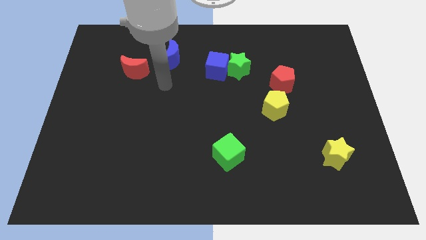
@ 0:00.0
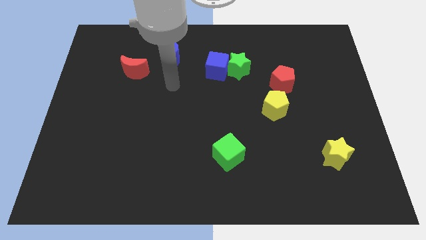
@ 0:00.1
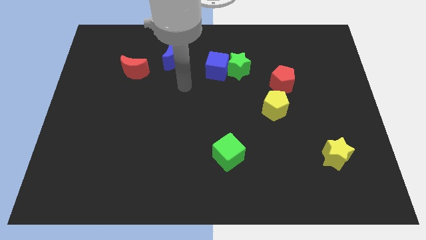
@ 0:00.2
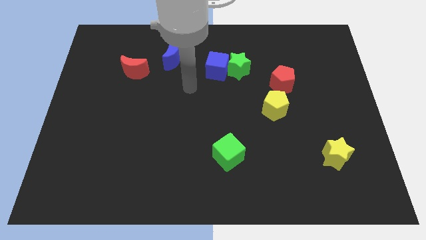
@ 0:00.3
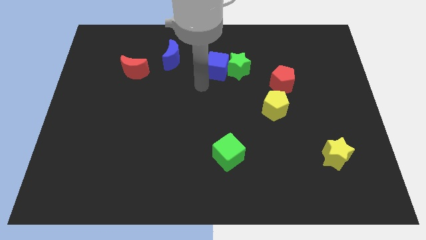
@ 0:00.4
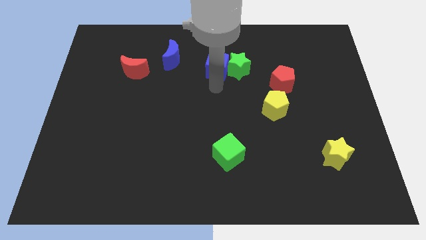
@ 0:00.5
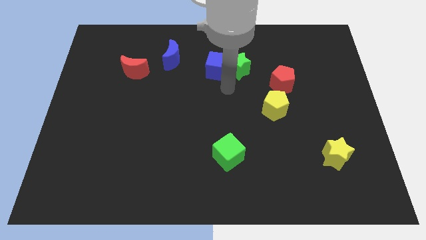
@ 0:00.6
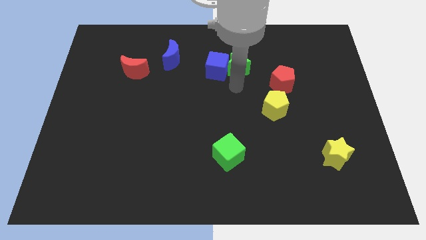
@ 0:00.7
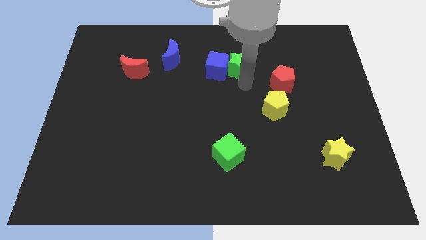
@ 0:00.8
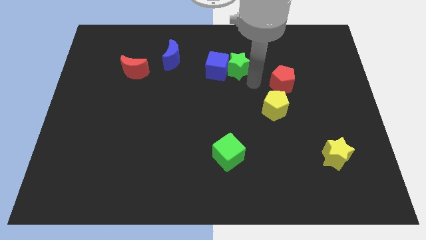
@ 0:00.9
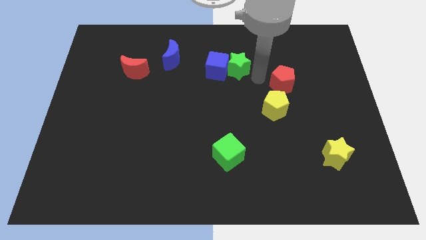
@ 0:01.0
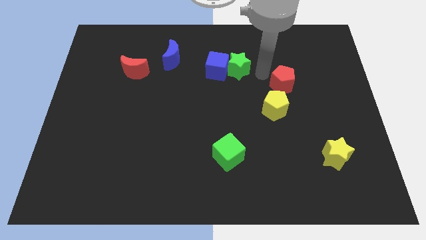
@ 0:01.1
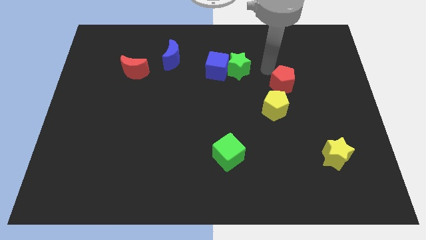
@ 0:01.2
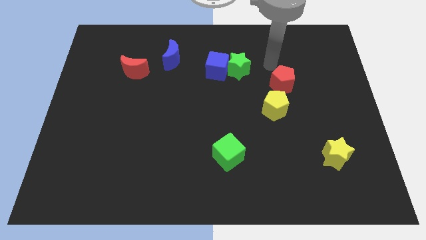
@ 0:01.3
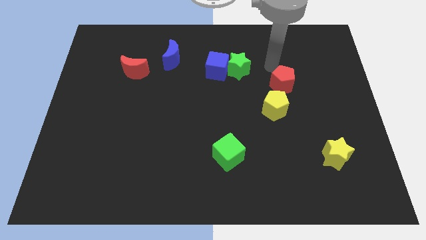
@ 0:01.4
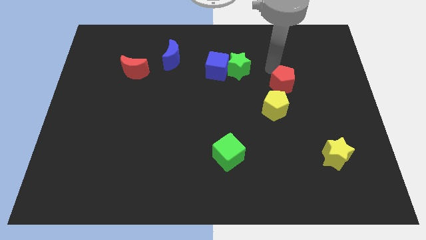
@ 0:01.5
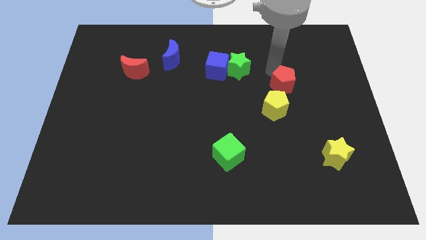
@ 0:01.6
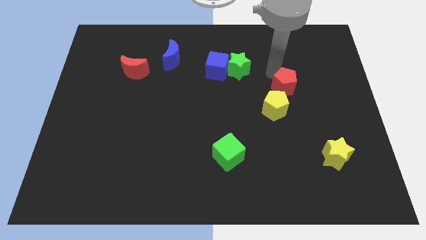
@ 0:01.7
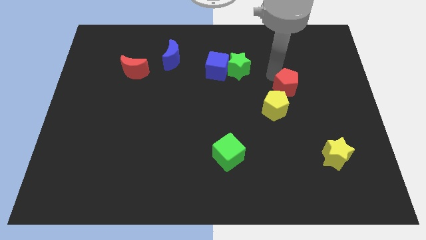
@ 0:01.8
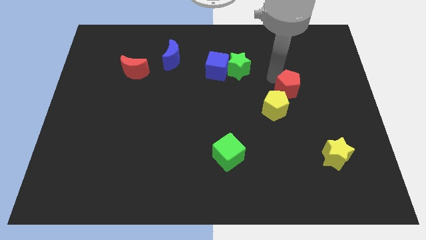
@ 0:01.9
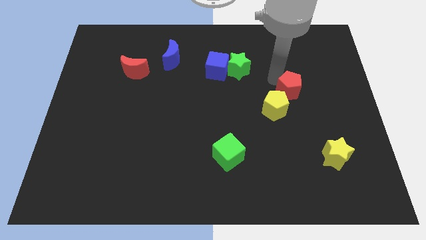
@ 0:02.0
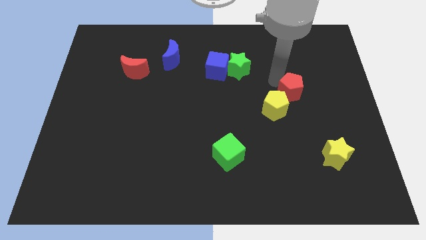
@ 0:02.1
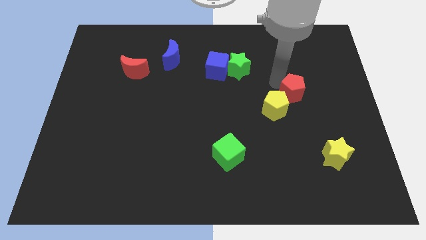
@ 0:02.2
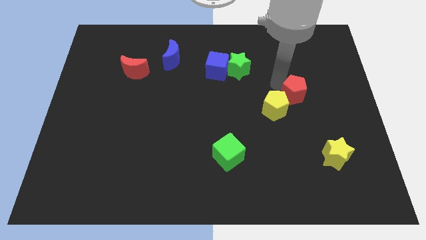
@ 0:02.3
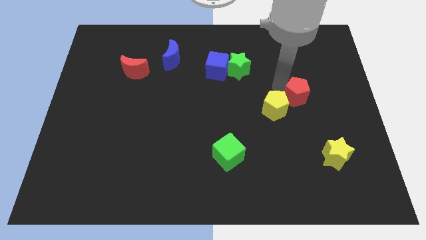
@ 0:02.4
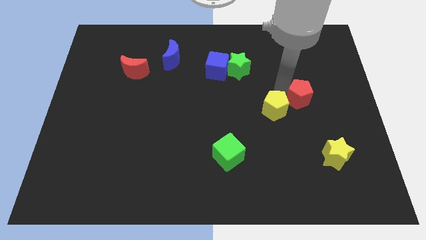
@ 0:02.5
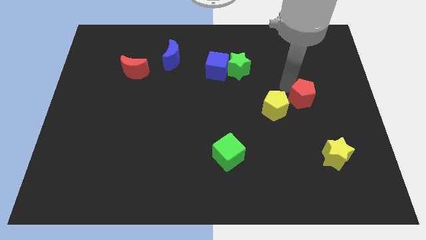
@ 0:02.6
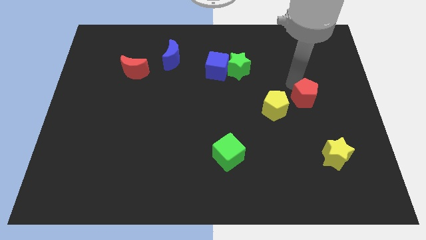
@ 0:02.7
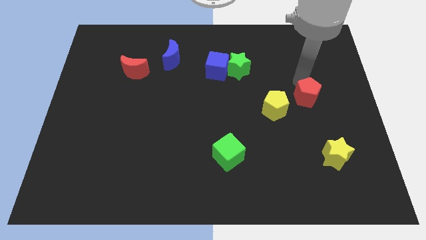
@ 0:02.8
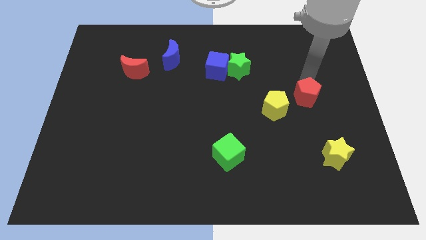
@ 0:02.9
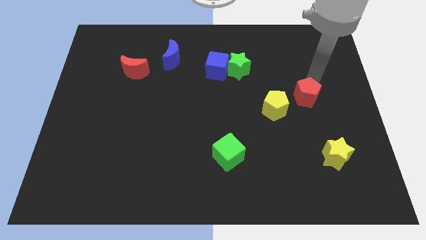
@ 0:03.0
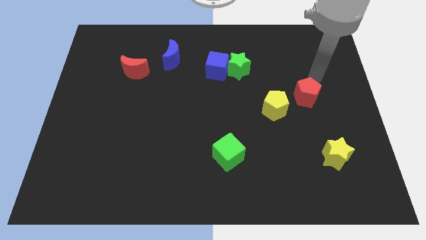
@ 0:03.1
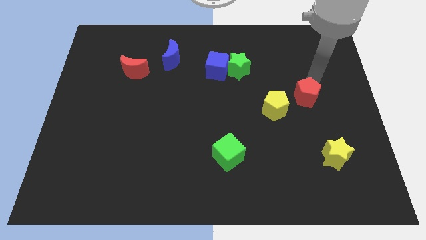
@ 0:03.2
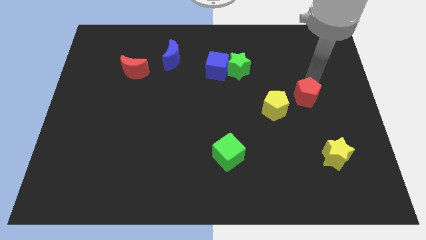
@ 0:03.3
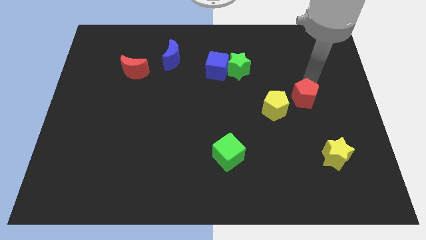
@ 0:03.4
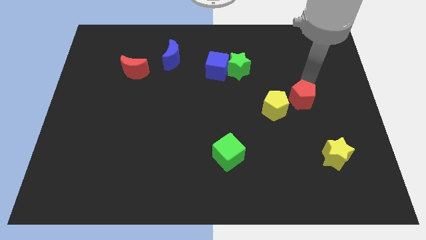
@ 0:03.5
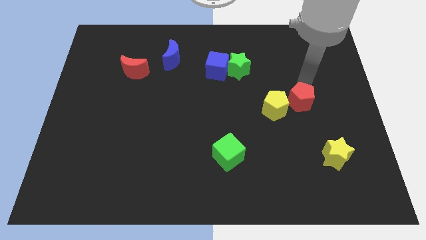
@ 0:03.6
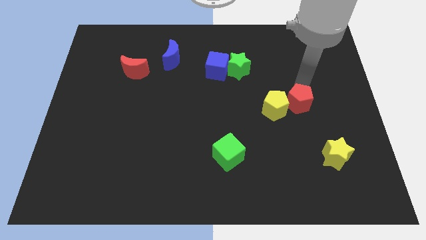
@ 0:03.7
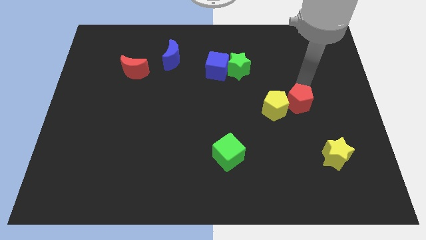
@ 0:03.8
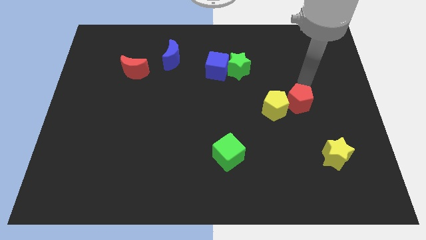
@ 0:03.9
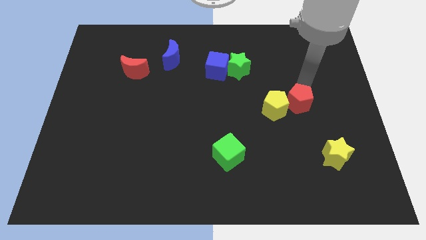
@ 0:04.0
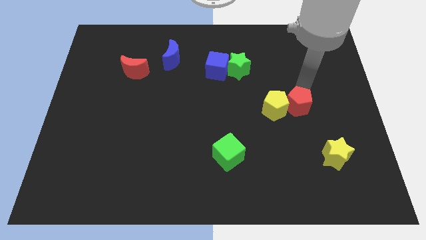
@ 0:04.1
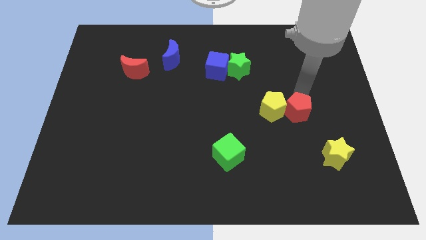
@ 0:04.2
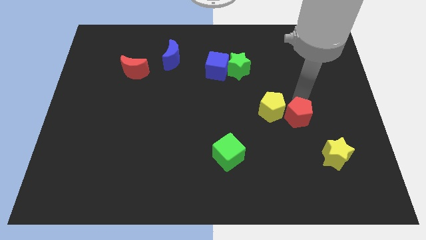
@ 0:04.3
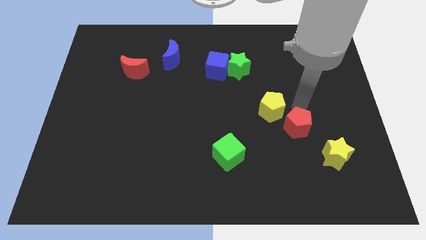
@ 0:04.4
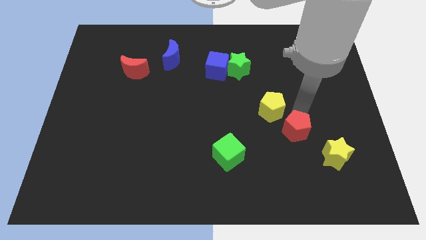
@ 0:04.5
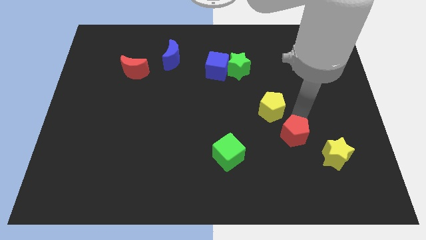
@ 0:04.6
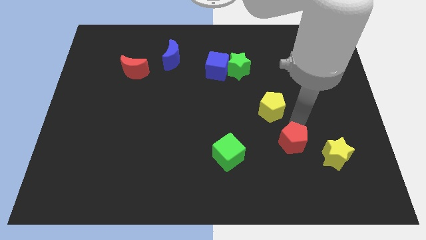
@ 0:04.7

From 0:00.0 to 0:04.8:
slide the red pentagon to the left side of the yellow star

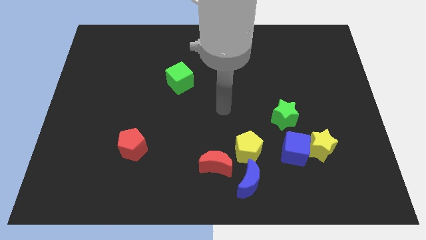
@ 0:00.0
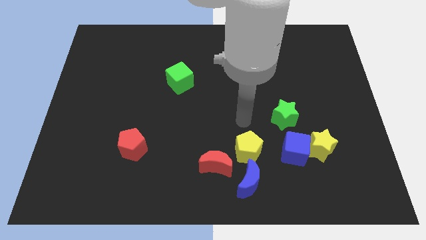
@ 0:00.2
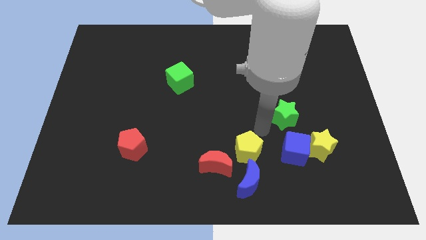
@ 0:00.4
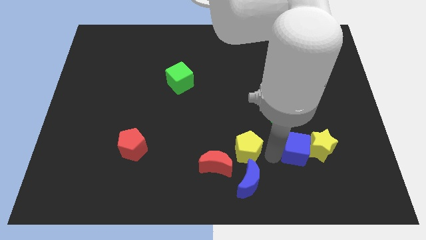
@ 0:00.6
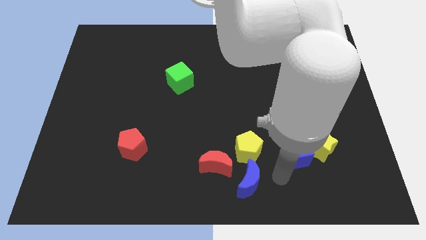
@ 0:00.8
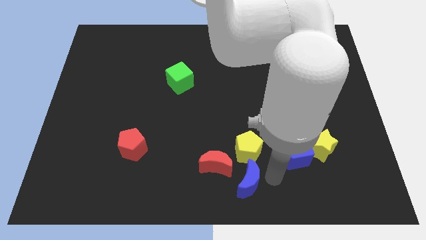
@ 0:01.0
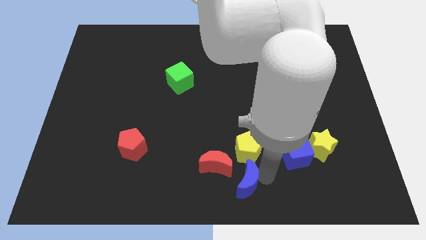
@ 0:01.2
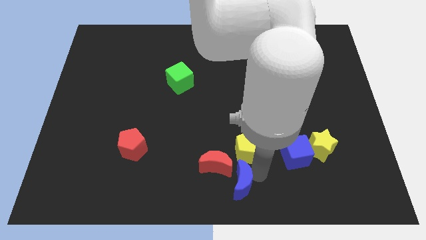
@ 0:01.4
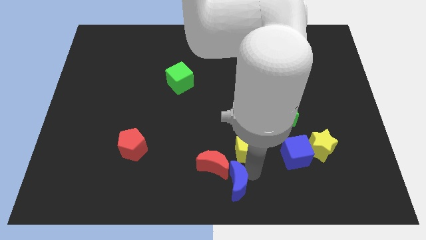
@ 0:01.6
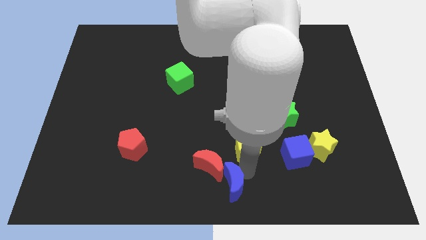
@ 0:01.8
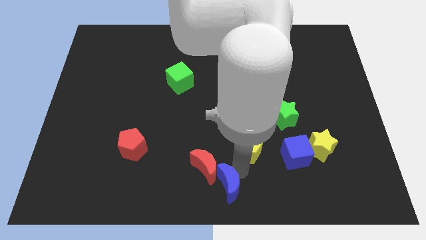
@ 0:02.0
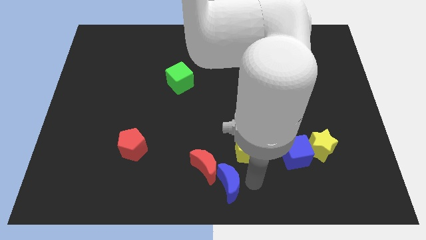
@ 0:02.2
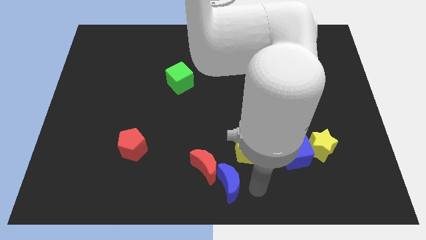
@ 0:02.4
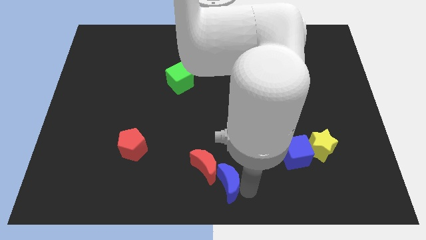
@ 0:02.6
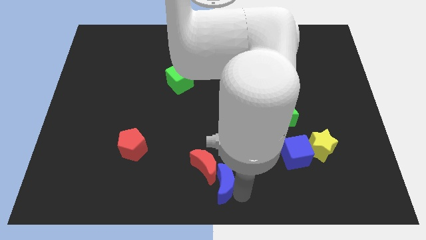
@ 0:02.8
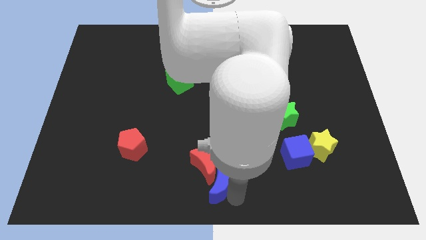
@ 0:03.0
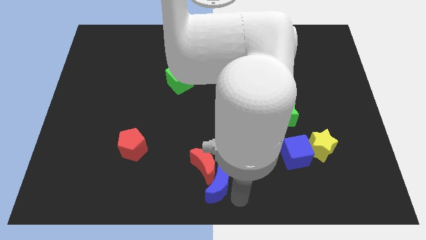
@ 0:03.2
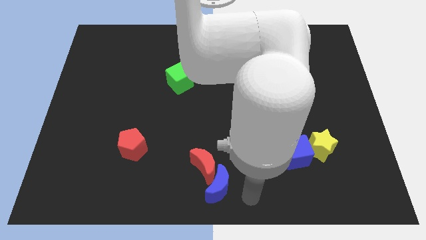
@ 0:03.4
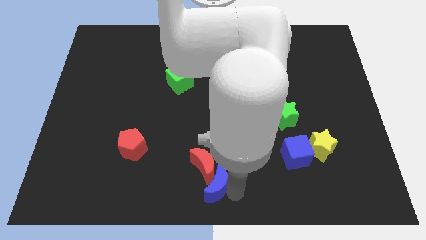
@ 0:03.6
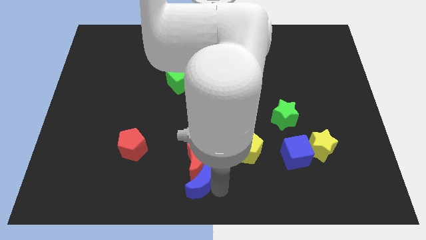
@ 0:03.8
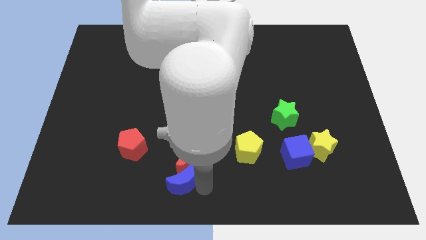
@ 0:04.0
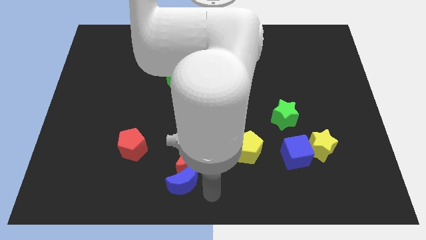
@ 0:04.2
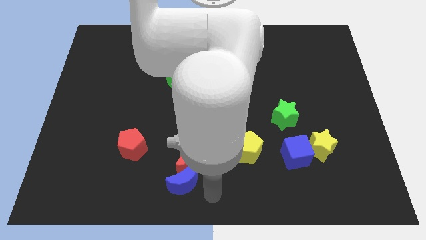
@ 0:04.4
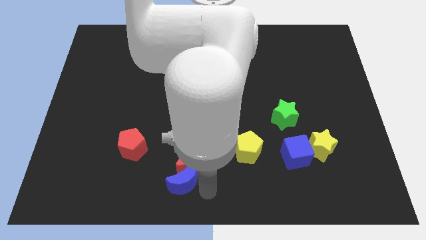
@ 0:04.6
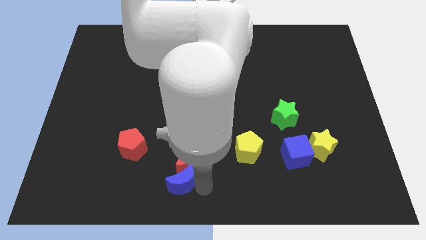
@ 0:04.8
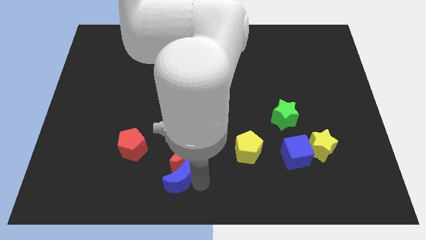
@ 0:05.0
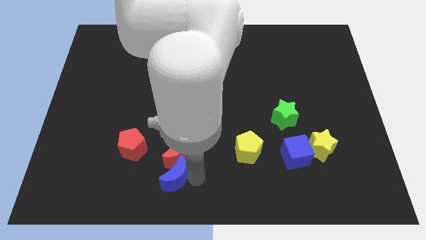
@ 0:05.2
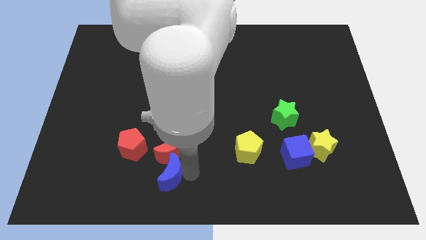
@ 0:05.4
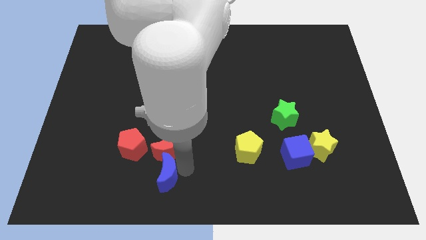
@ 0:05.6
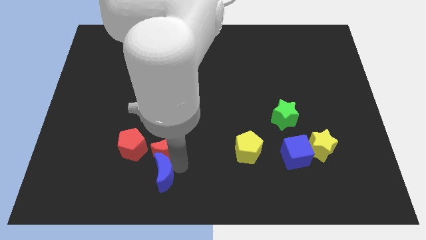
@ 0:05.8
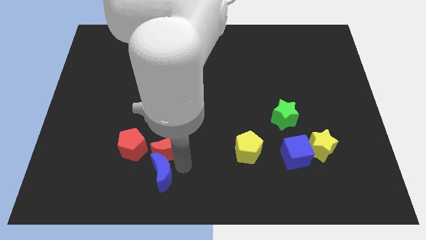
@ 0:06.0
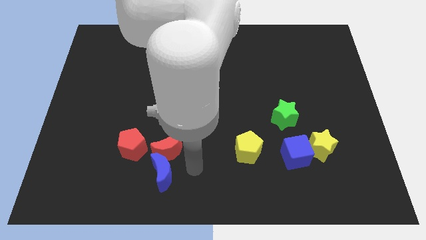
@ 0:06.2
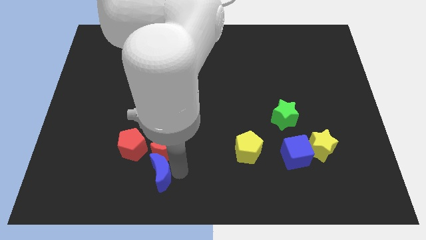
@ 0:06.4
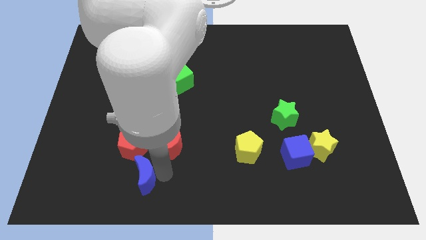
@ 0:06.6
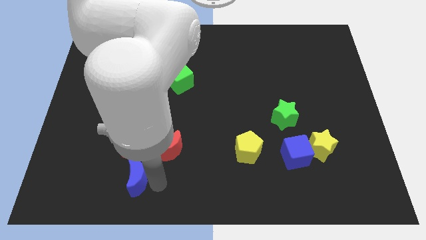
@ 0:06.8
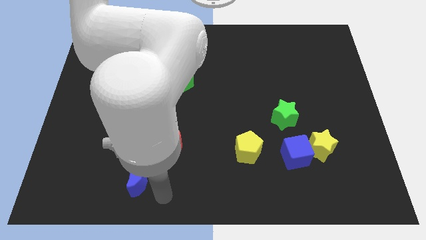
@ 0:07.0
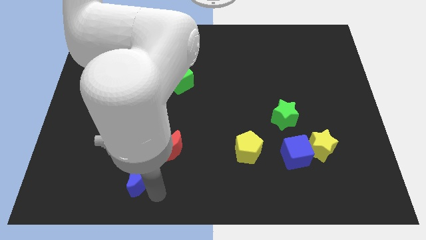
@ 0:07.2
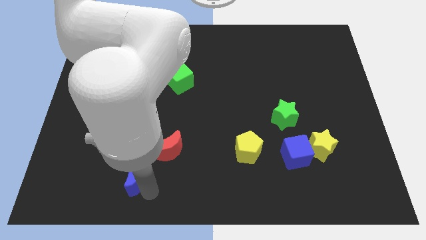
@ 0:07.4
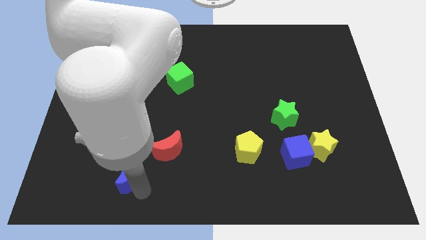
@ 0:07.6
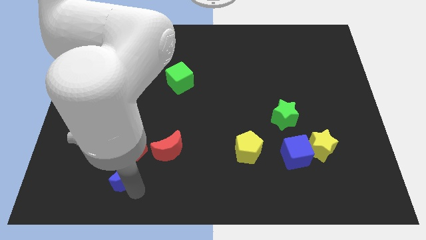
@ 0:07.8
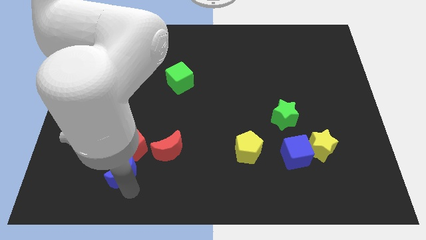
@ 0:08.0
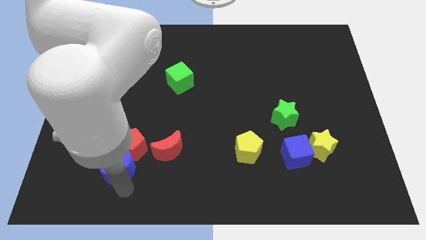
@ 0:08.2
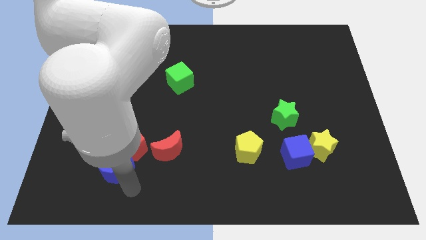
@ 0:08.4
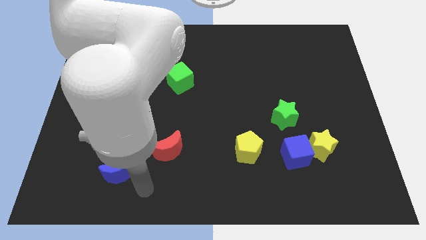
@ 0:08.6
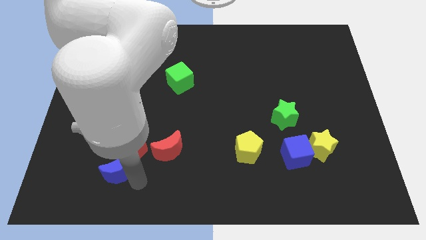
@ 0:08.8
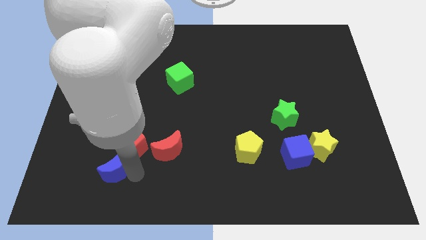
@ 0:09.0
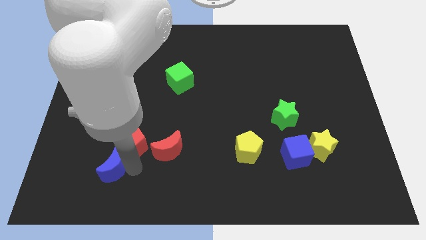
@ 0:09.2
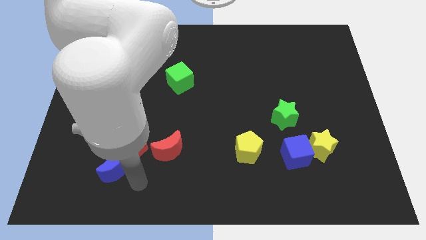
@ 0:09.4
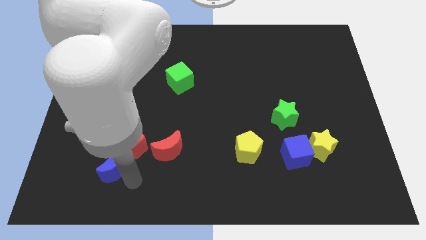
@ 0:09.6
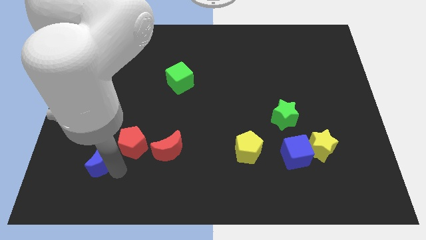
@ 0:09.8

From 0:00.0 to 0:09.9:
move the blue moon left of the red pentagon
